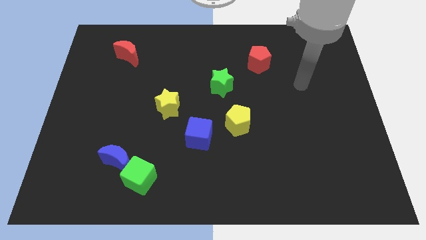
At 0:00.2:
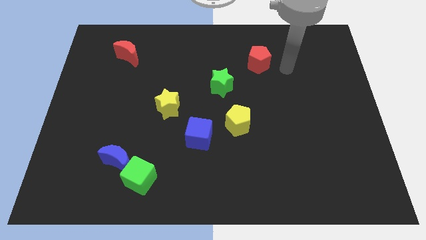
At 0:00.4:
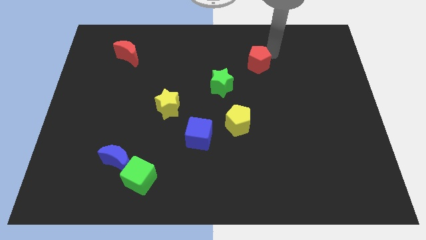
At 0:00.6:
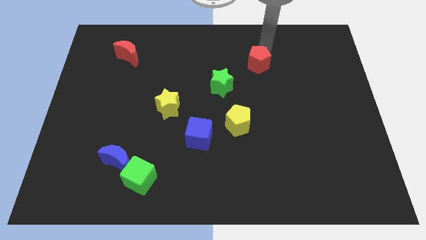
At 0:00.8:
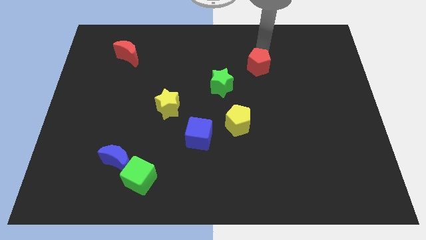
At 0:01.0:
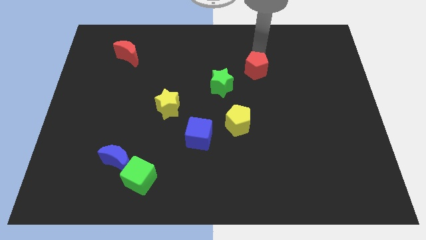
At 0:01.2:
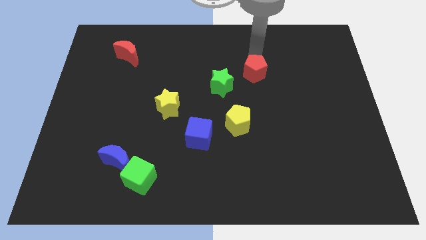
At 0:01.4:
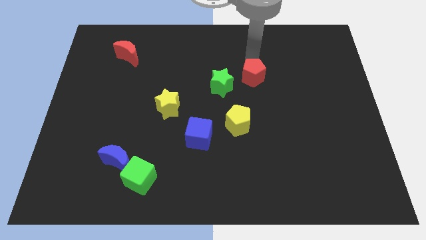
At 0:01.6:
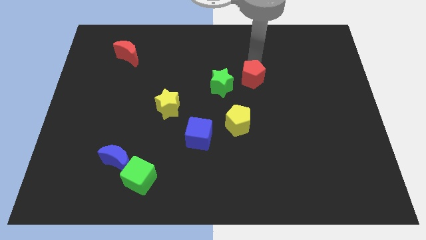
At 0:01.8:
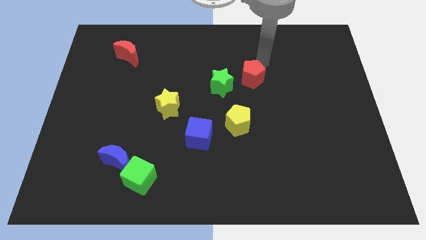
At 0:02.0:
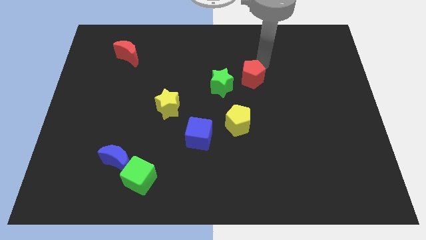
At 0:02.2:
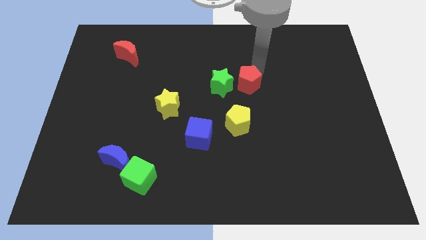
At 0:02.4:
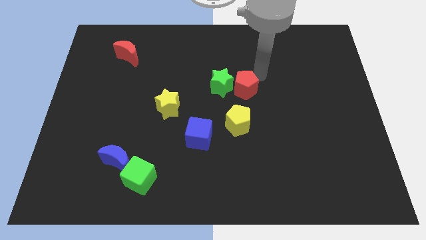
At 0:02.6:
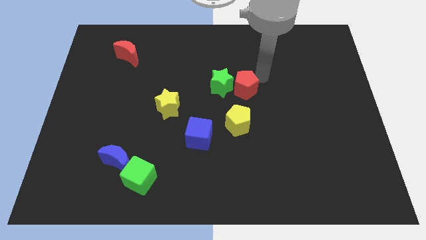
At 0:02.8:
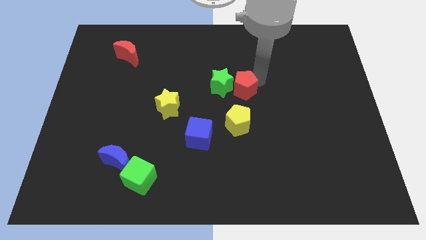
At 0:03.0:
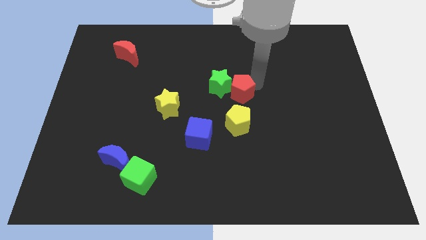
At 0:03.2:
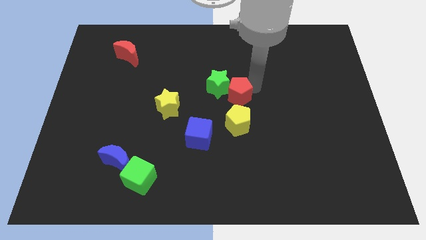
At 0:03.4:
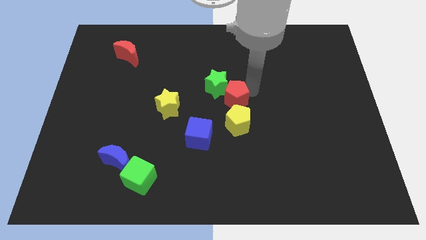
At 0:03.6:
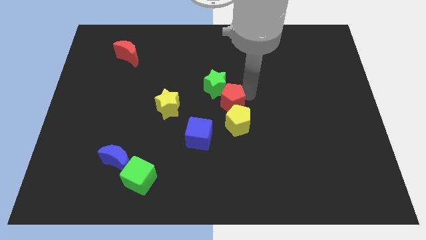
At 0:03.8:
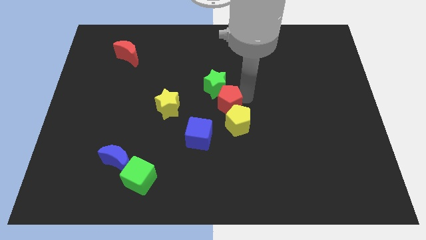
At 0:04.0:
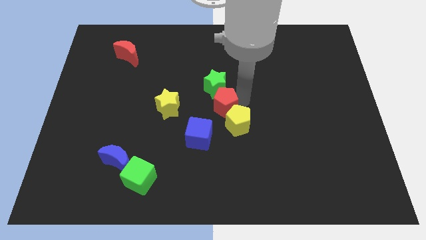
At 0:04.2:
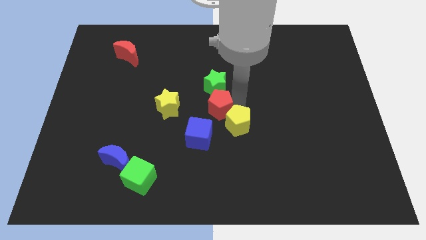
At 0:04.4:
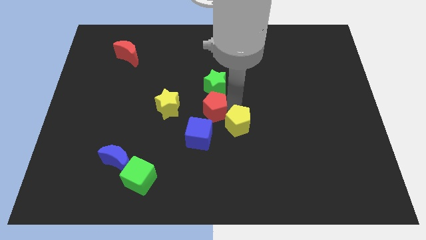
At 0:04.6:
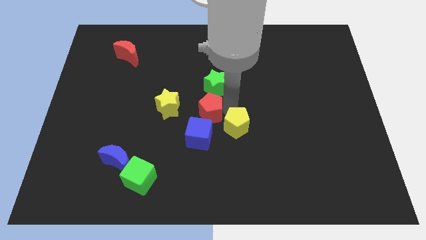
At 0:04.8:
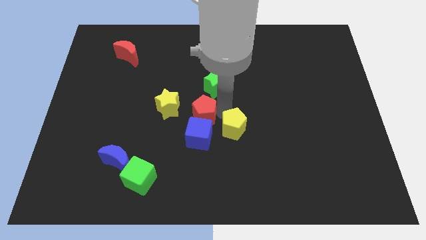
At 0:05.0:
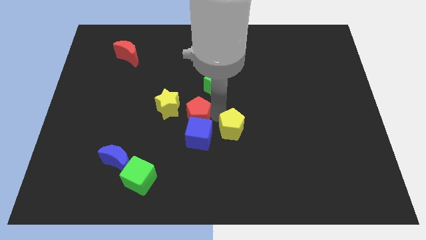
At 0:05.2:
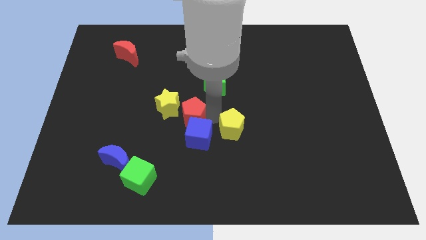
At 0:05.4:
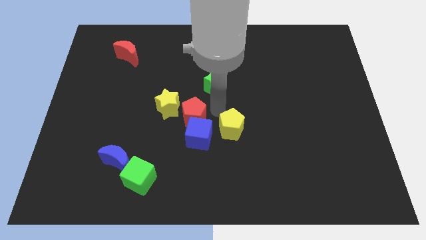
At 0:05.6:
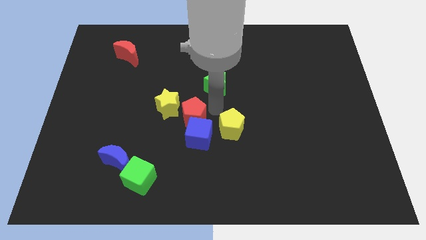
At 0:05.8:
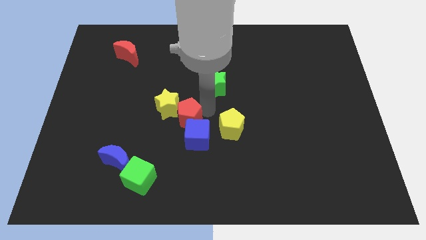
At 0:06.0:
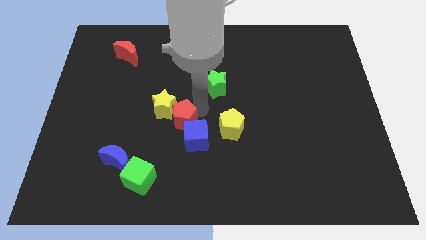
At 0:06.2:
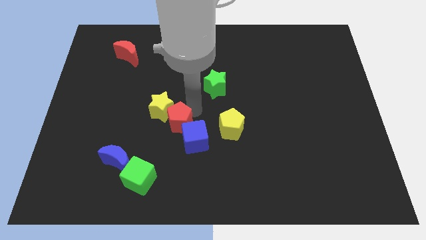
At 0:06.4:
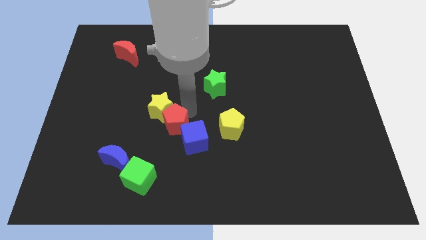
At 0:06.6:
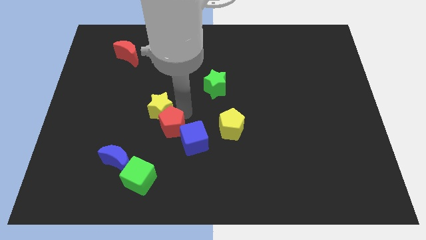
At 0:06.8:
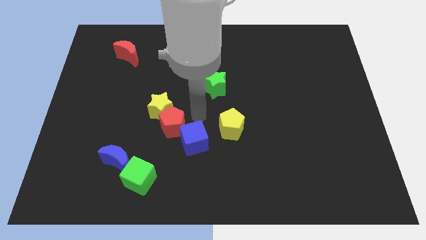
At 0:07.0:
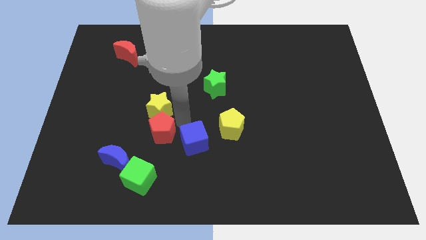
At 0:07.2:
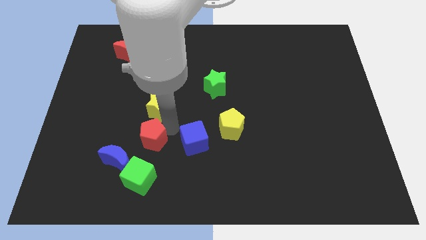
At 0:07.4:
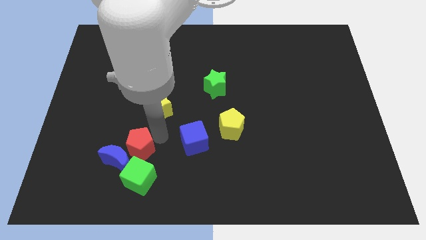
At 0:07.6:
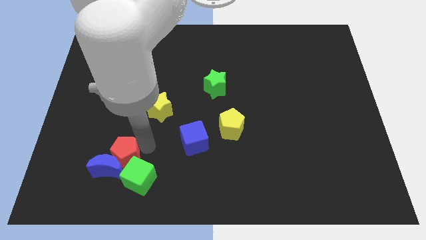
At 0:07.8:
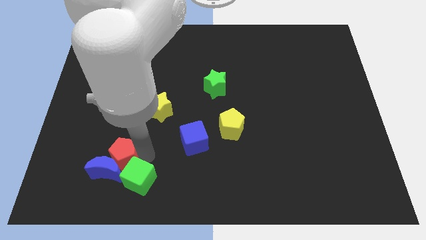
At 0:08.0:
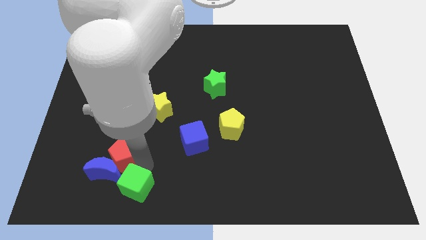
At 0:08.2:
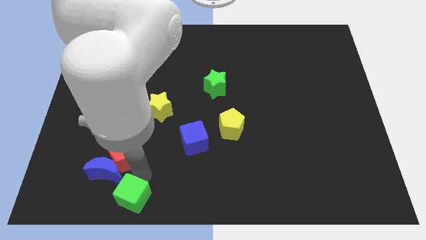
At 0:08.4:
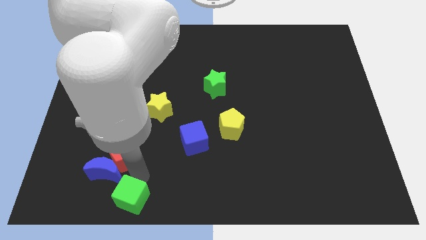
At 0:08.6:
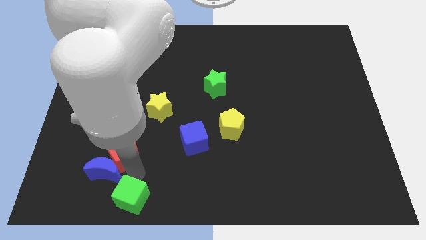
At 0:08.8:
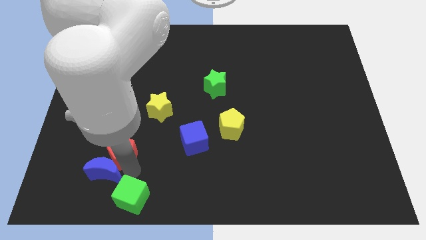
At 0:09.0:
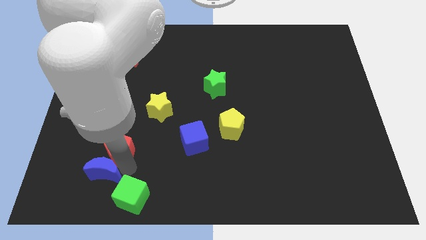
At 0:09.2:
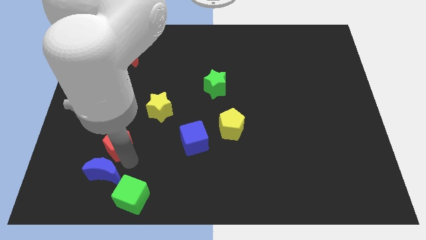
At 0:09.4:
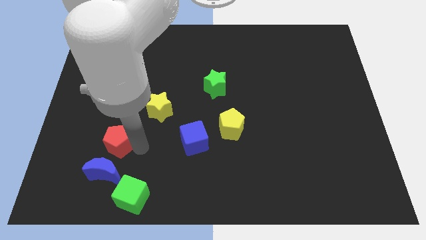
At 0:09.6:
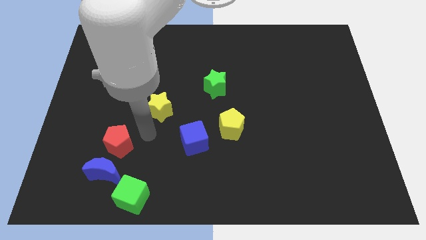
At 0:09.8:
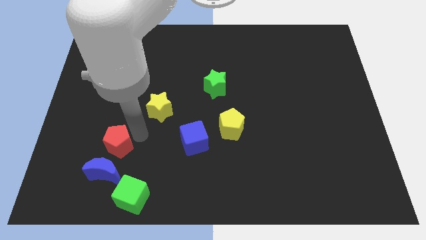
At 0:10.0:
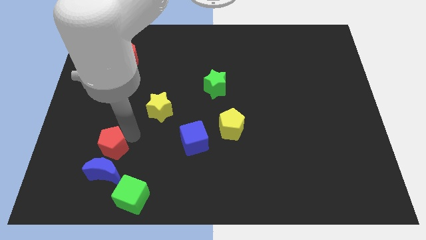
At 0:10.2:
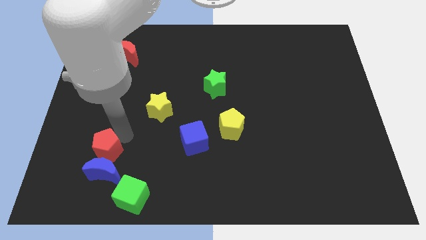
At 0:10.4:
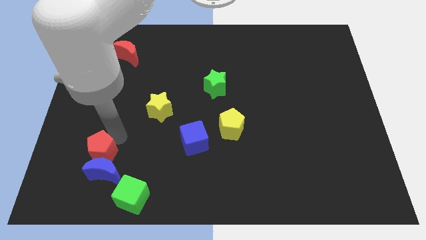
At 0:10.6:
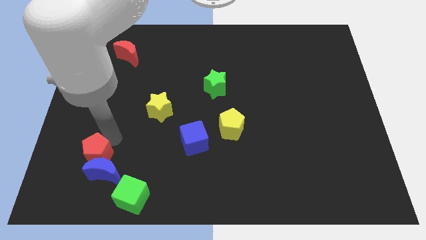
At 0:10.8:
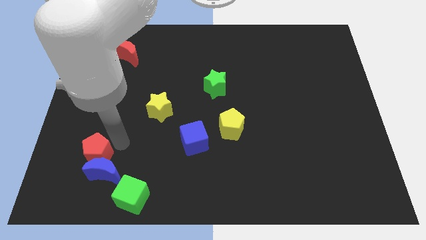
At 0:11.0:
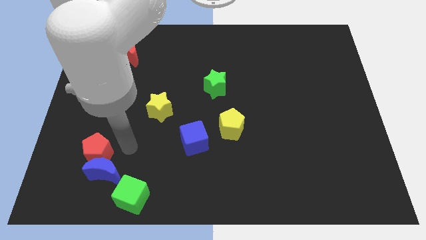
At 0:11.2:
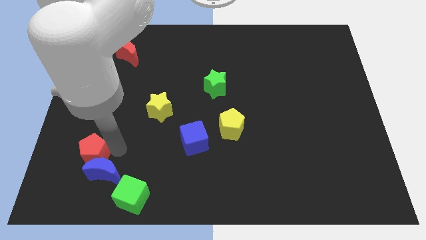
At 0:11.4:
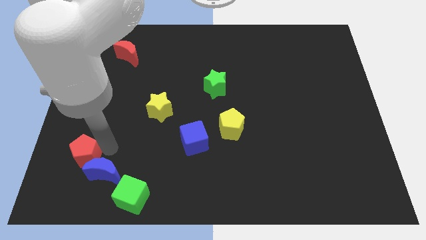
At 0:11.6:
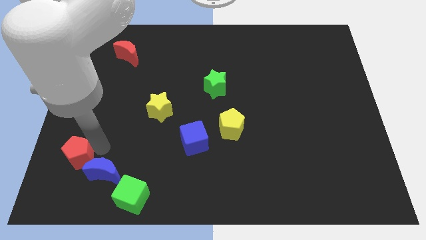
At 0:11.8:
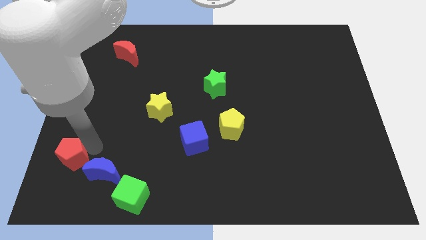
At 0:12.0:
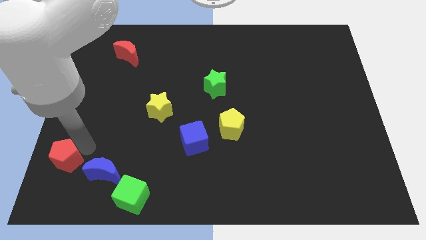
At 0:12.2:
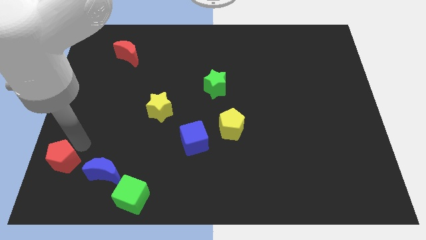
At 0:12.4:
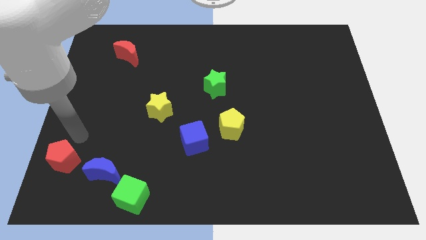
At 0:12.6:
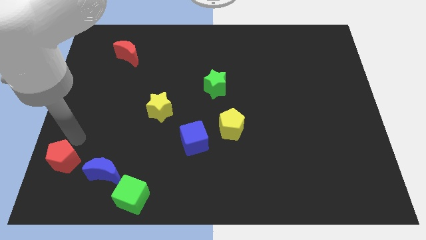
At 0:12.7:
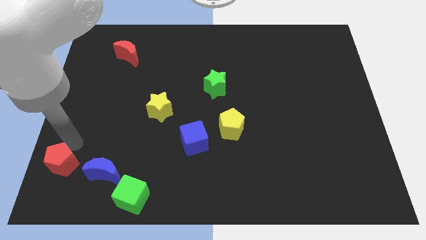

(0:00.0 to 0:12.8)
push the red pentagon to the bottom left of the board
